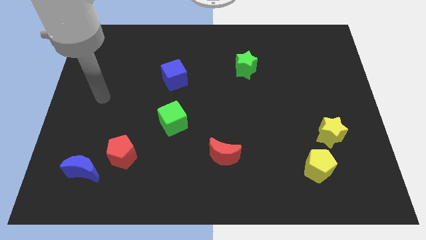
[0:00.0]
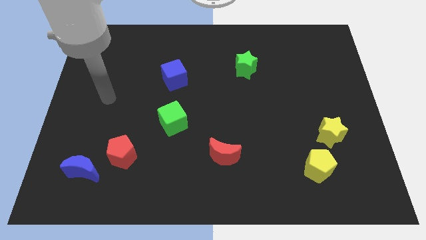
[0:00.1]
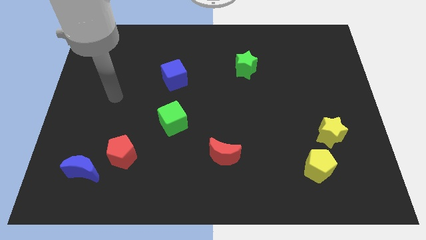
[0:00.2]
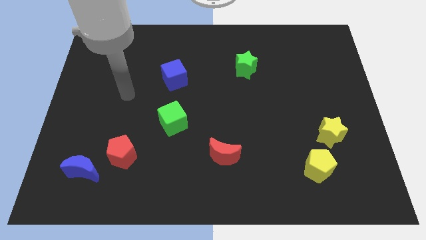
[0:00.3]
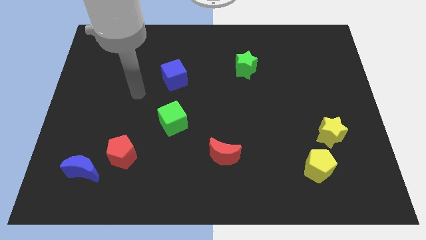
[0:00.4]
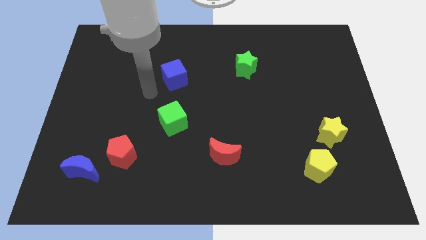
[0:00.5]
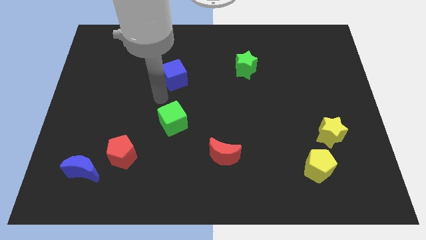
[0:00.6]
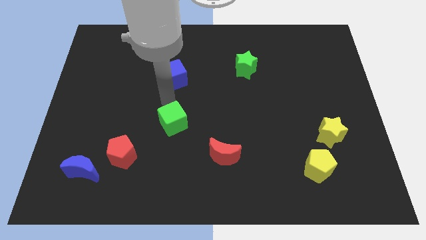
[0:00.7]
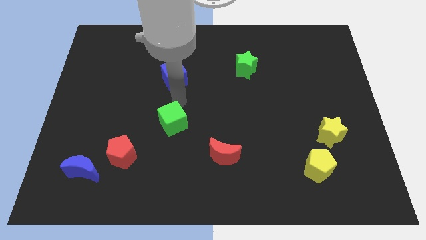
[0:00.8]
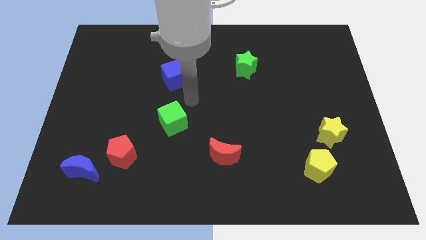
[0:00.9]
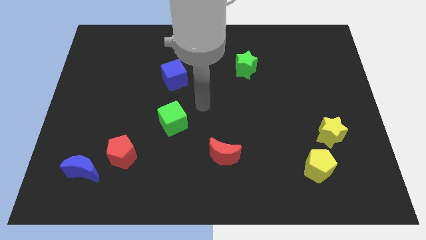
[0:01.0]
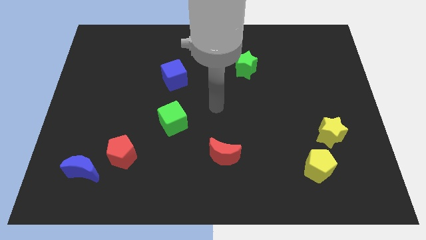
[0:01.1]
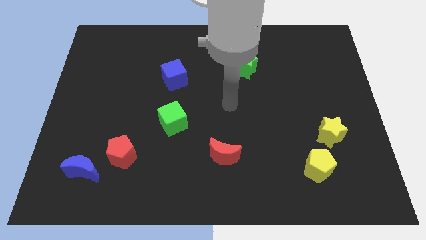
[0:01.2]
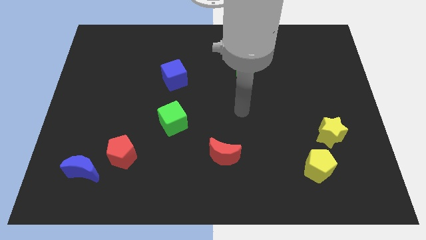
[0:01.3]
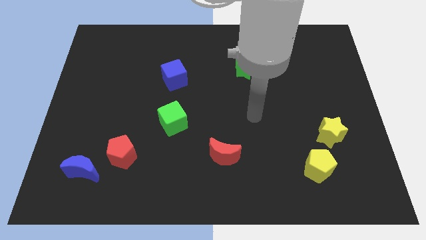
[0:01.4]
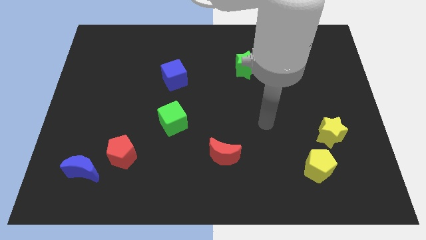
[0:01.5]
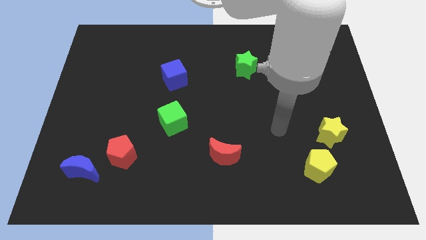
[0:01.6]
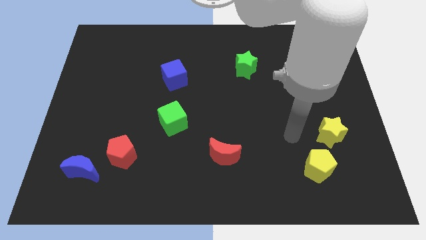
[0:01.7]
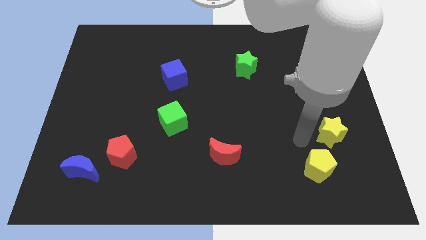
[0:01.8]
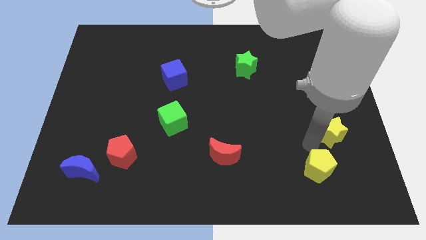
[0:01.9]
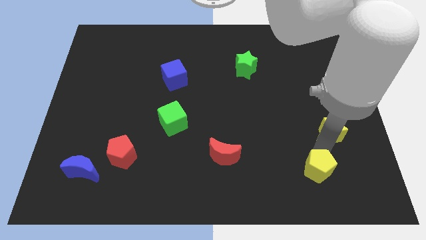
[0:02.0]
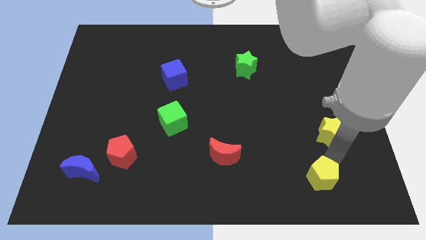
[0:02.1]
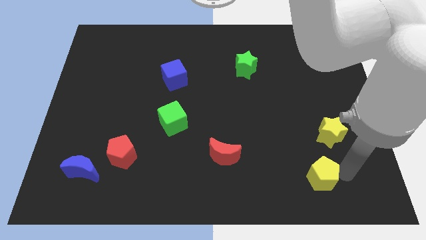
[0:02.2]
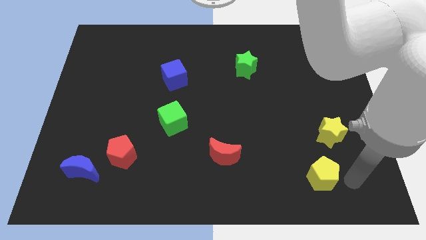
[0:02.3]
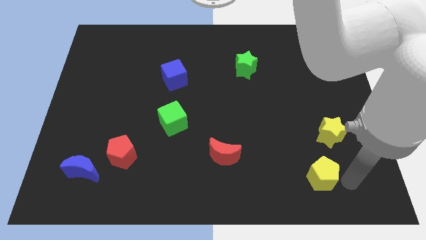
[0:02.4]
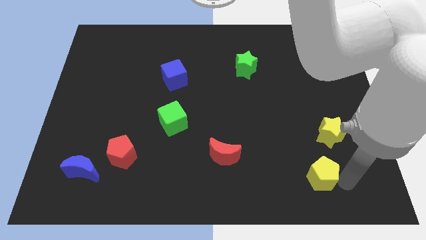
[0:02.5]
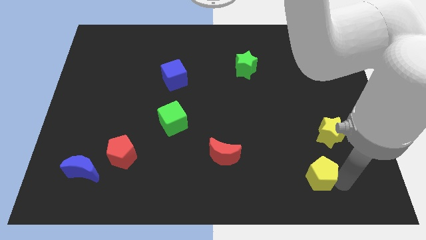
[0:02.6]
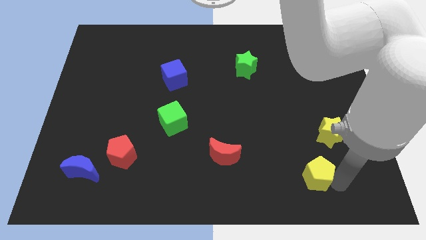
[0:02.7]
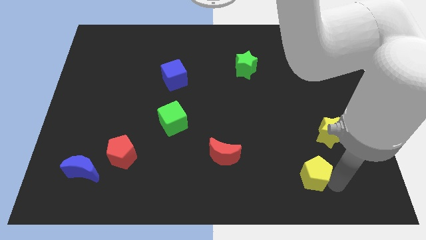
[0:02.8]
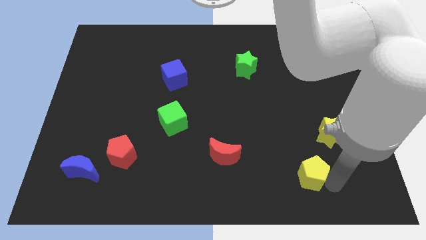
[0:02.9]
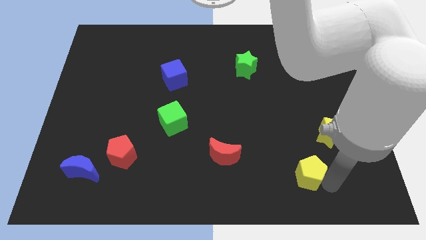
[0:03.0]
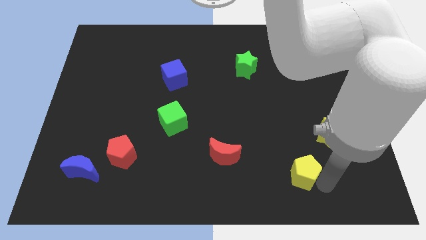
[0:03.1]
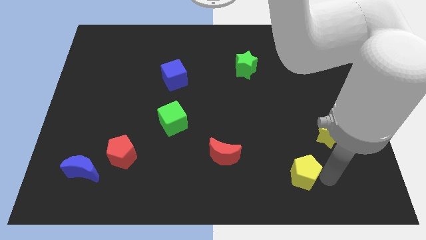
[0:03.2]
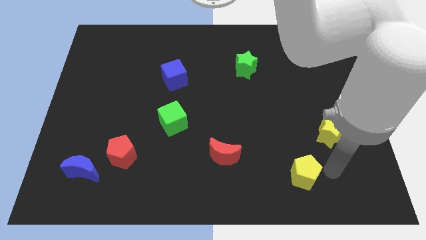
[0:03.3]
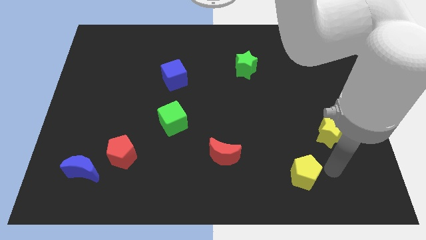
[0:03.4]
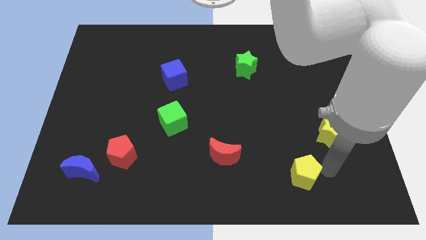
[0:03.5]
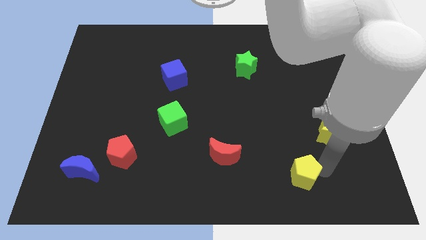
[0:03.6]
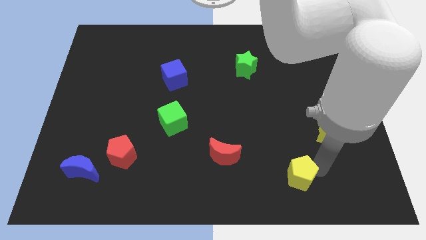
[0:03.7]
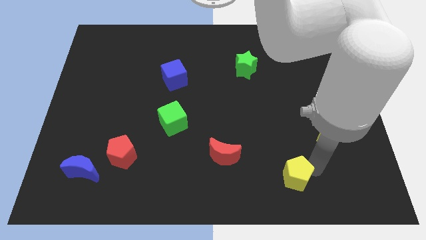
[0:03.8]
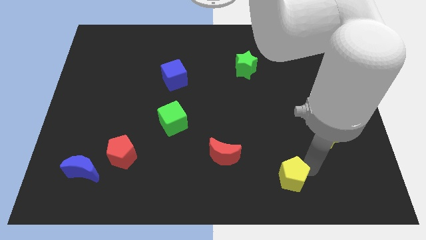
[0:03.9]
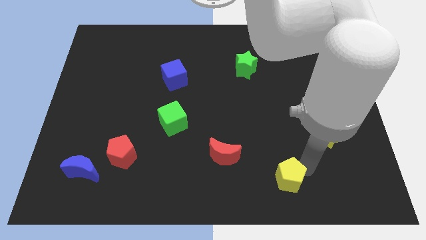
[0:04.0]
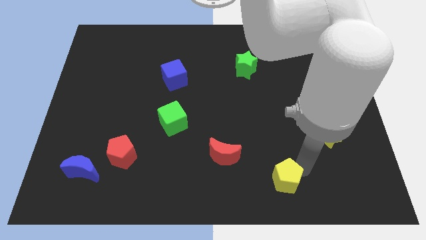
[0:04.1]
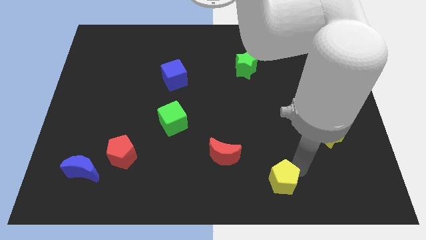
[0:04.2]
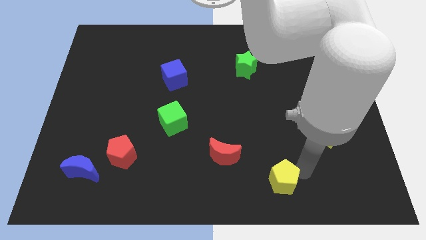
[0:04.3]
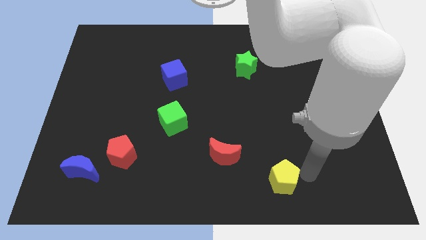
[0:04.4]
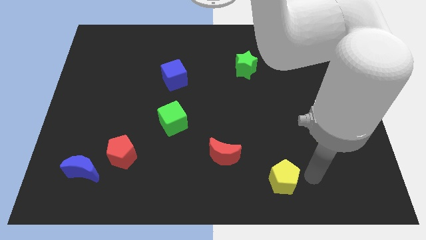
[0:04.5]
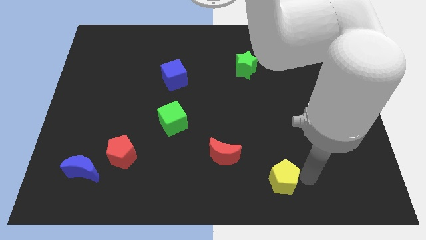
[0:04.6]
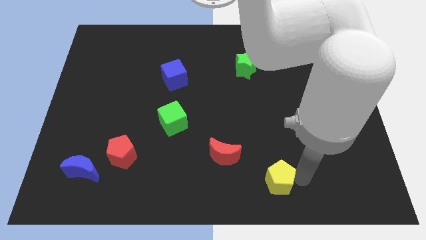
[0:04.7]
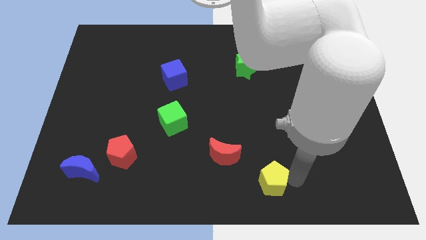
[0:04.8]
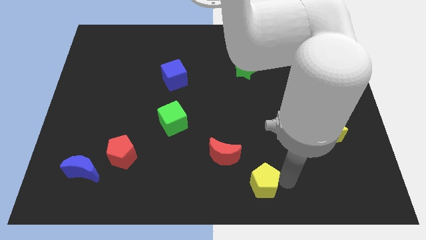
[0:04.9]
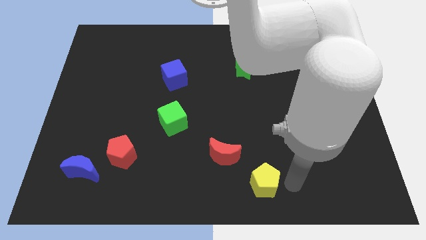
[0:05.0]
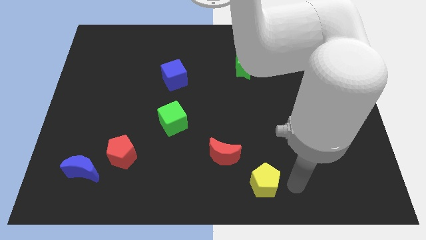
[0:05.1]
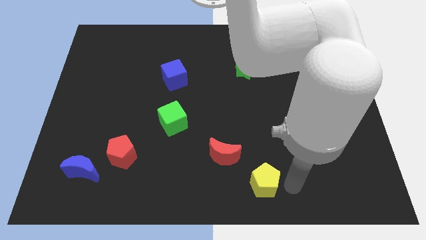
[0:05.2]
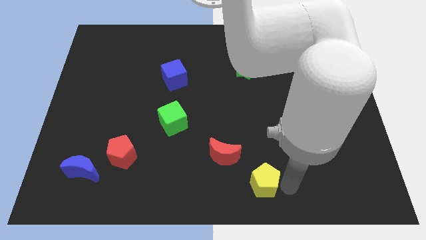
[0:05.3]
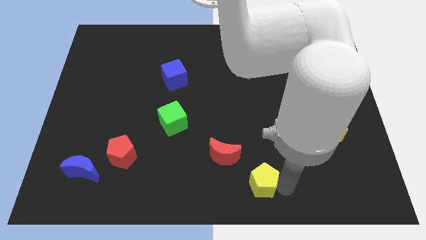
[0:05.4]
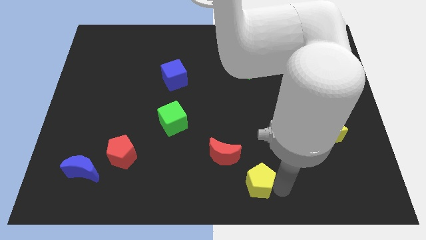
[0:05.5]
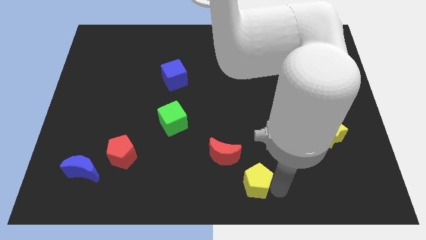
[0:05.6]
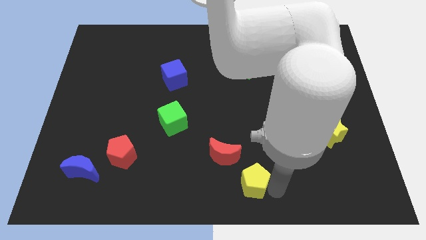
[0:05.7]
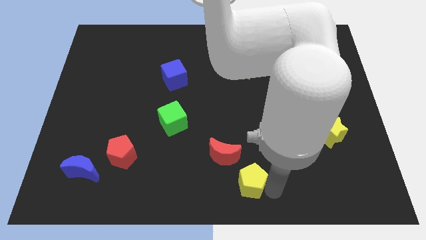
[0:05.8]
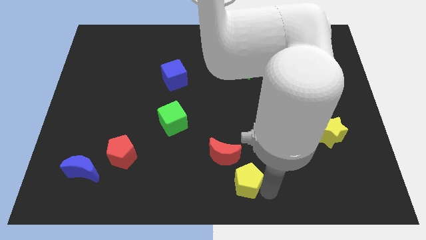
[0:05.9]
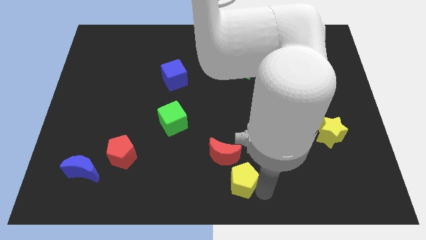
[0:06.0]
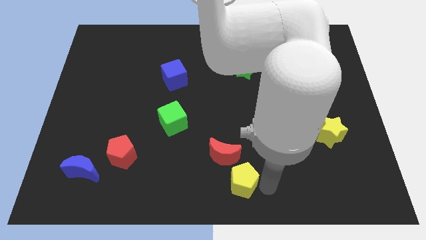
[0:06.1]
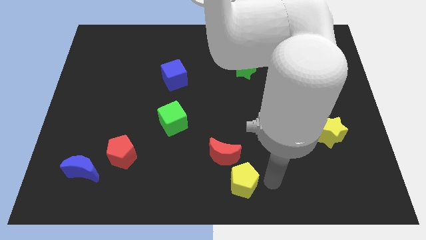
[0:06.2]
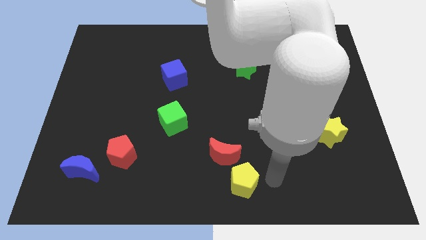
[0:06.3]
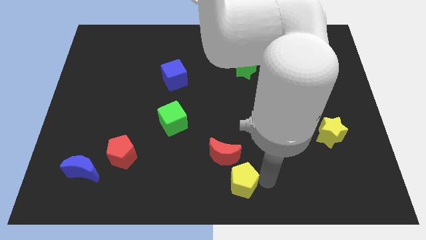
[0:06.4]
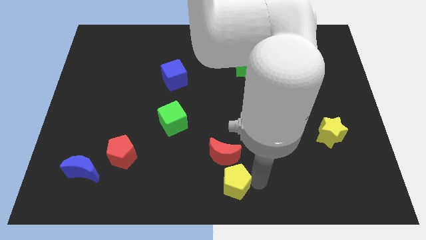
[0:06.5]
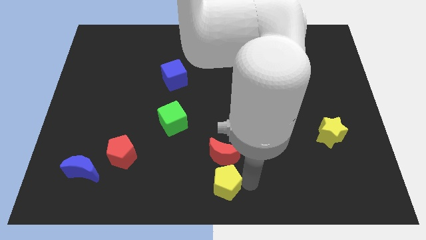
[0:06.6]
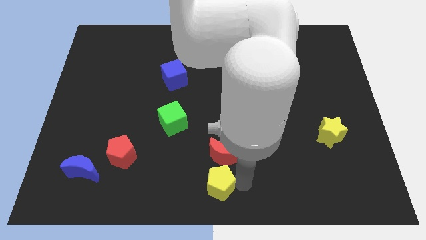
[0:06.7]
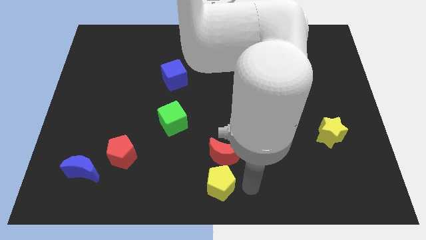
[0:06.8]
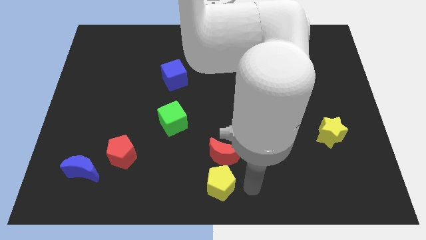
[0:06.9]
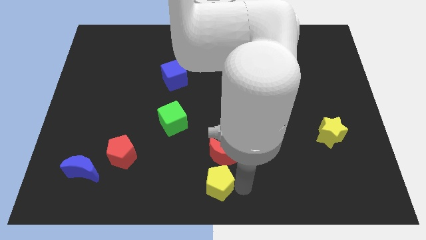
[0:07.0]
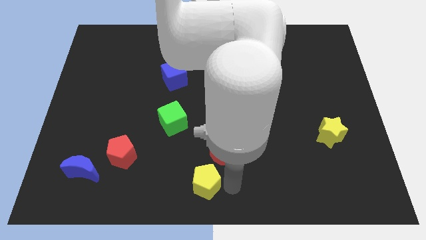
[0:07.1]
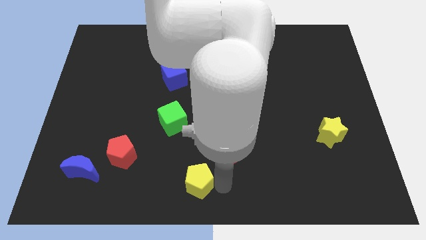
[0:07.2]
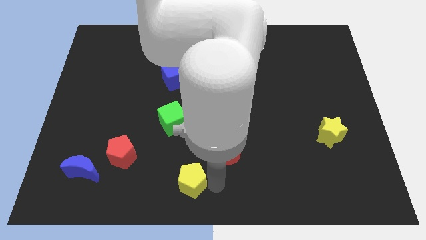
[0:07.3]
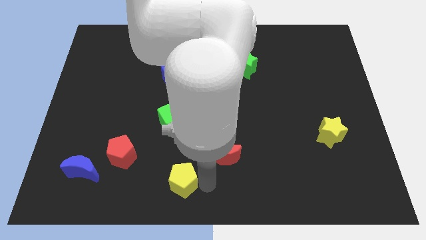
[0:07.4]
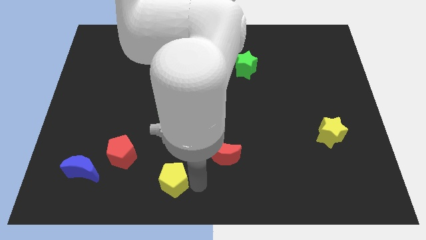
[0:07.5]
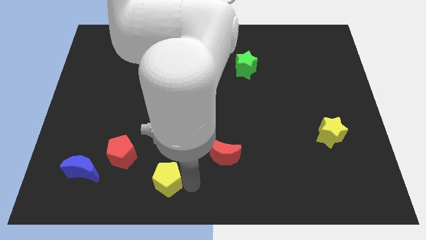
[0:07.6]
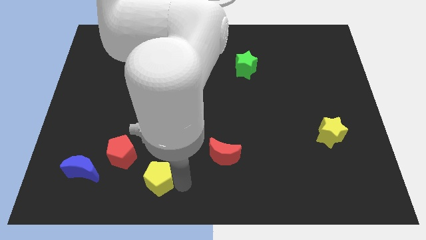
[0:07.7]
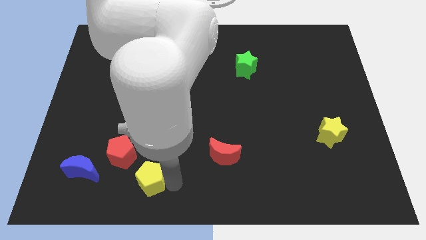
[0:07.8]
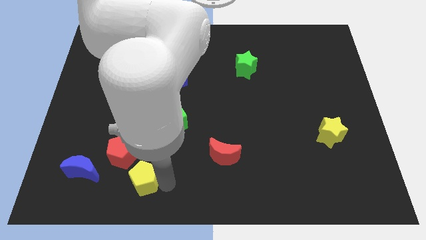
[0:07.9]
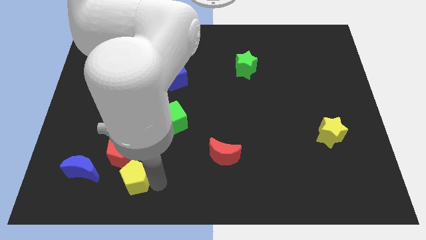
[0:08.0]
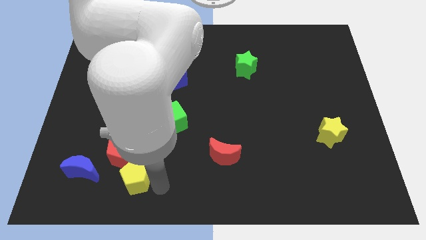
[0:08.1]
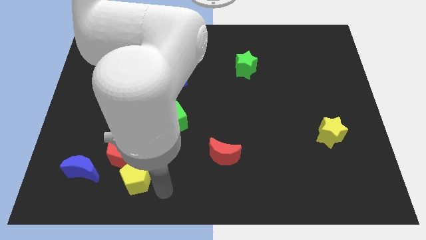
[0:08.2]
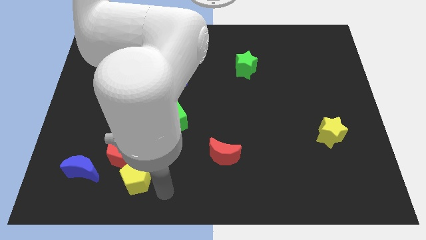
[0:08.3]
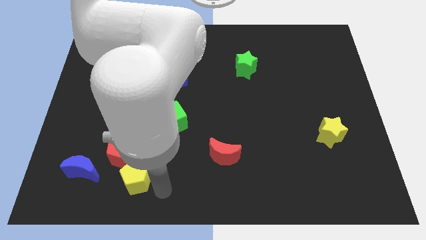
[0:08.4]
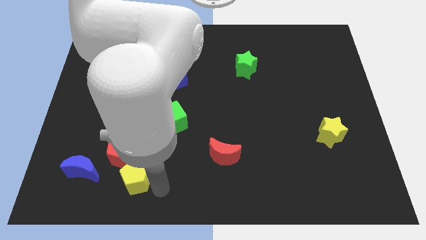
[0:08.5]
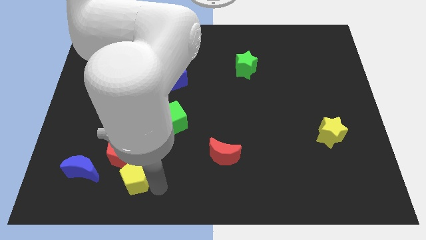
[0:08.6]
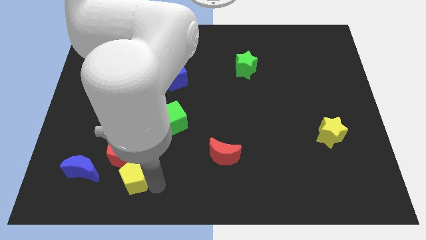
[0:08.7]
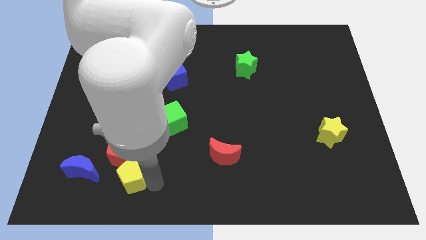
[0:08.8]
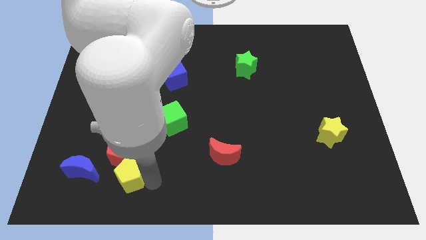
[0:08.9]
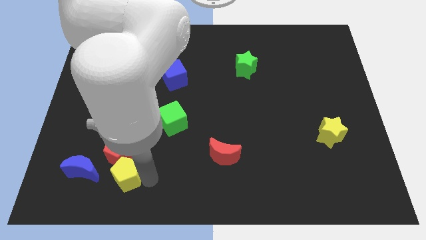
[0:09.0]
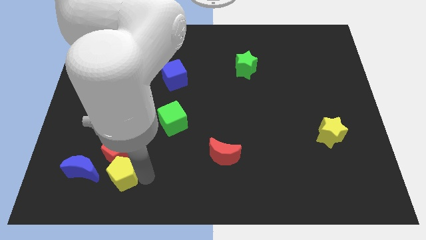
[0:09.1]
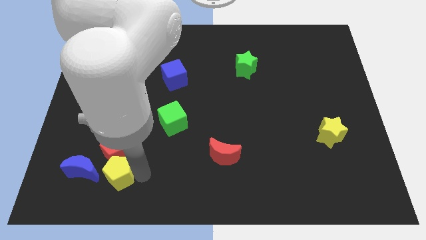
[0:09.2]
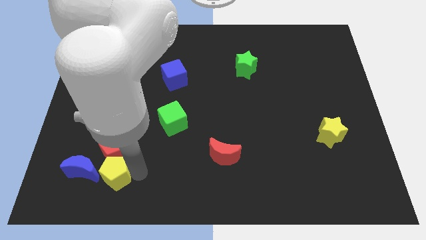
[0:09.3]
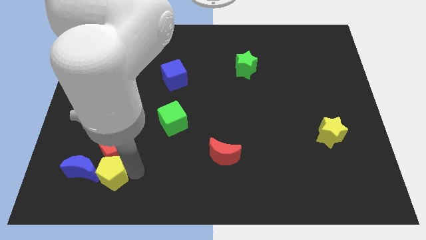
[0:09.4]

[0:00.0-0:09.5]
put the yellow pentagon to the blue moon
